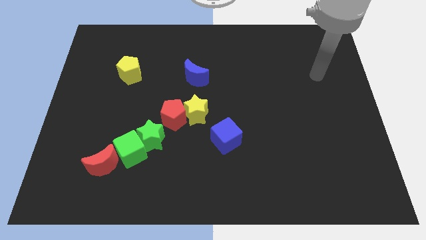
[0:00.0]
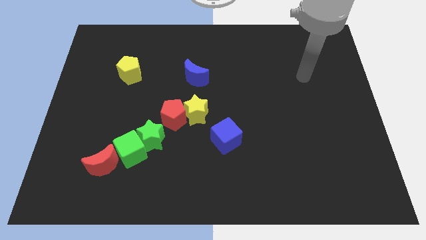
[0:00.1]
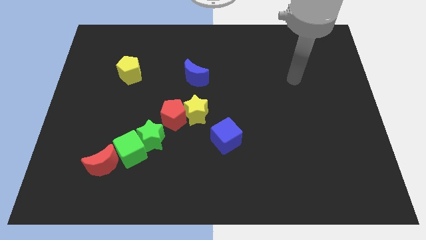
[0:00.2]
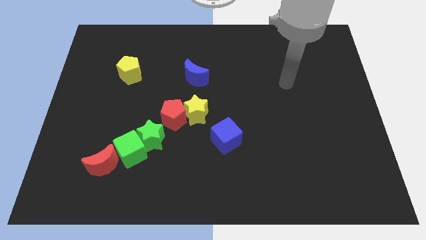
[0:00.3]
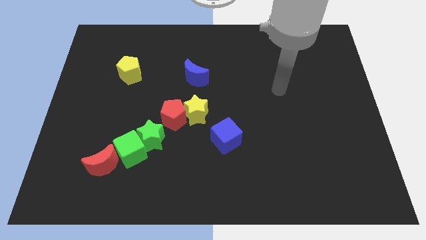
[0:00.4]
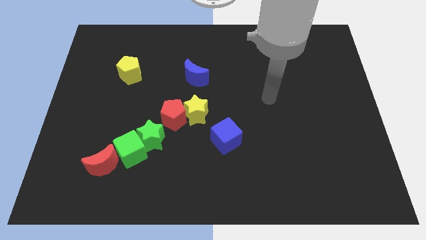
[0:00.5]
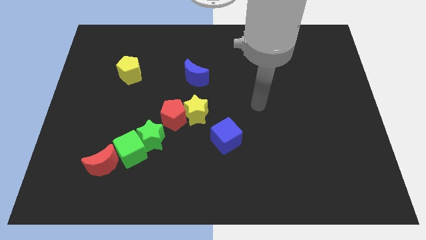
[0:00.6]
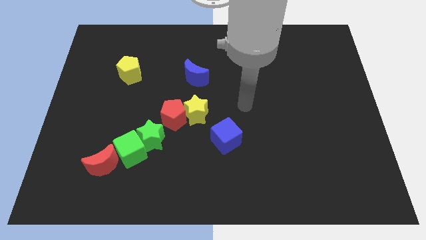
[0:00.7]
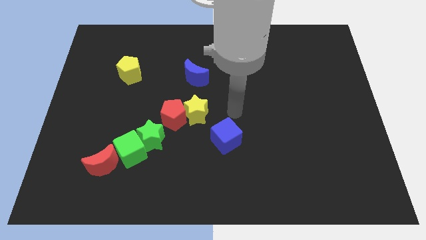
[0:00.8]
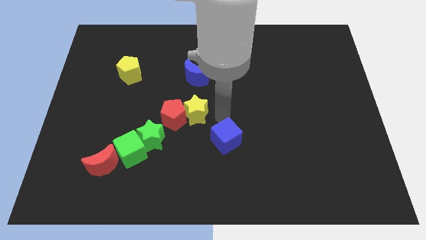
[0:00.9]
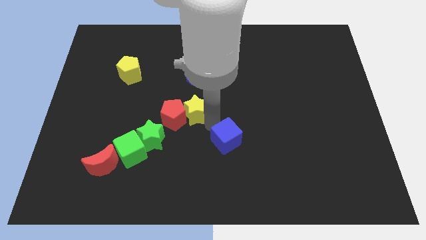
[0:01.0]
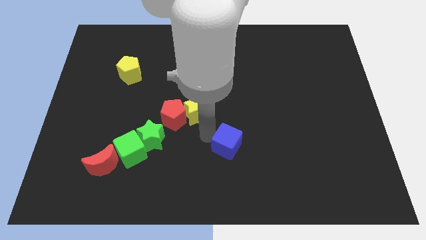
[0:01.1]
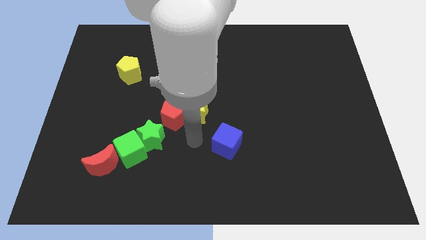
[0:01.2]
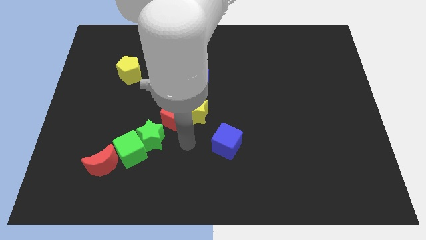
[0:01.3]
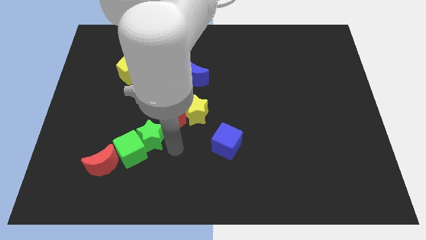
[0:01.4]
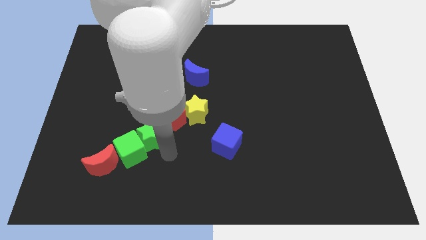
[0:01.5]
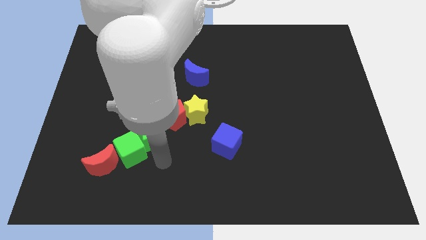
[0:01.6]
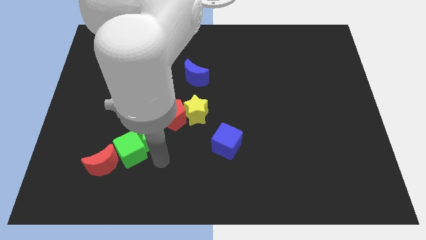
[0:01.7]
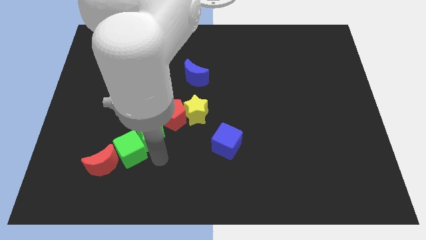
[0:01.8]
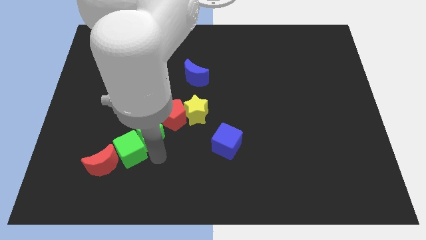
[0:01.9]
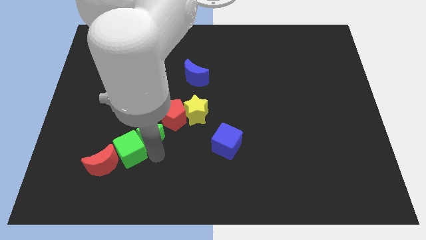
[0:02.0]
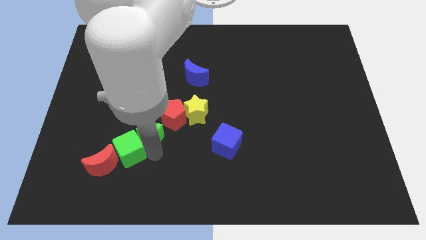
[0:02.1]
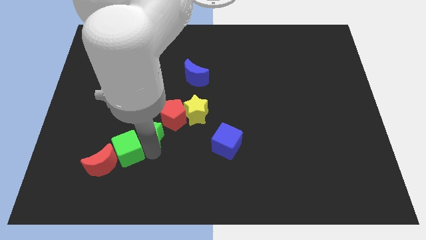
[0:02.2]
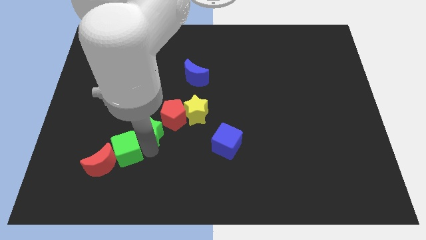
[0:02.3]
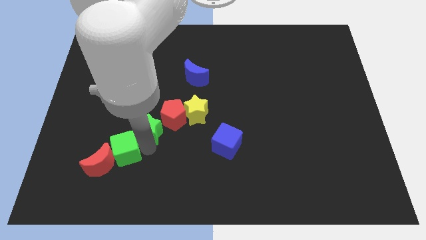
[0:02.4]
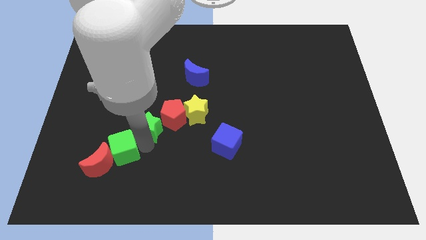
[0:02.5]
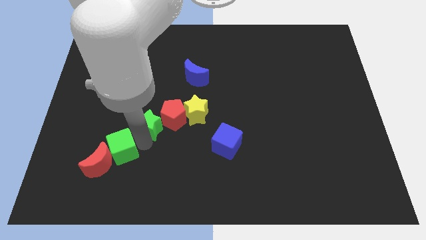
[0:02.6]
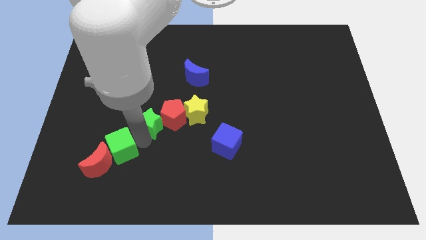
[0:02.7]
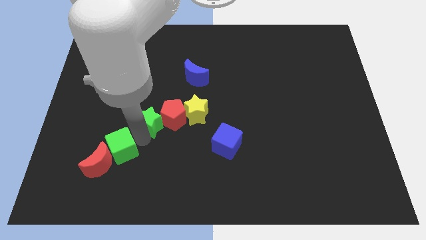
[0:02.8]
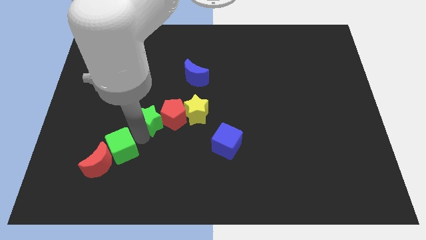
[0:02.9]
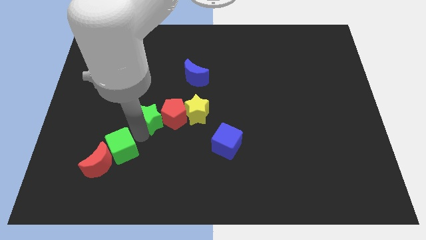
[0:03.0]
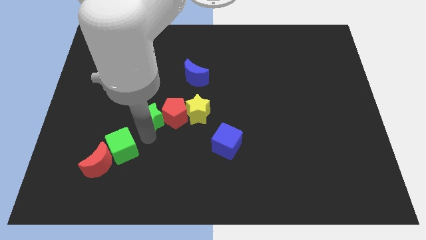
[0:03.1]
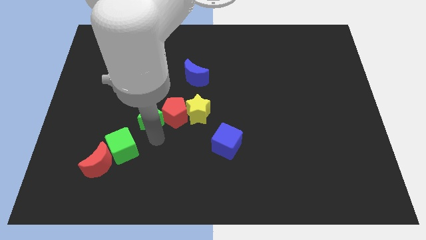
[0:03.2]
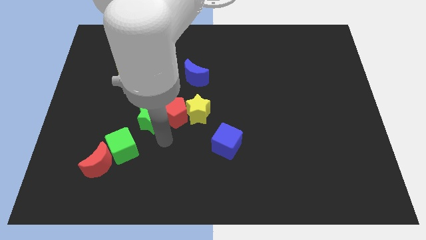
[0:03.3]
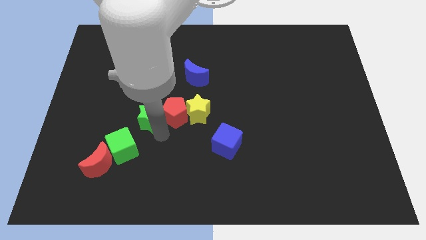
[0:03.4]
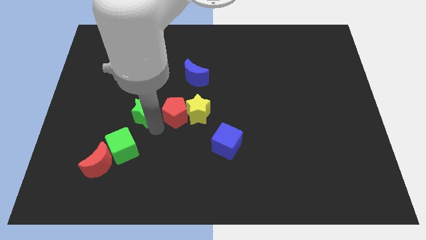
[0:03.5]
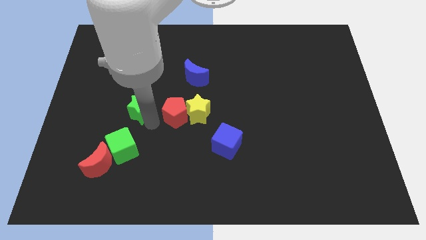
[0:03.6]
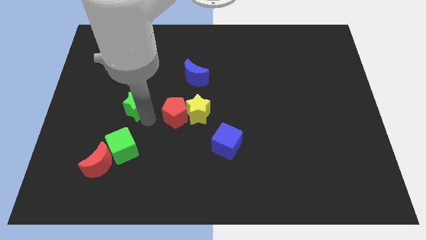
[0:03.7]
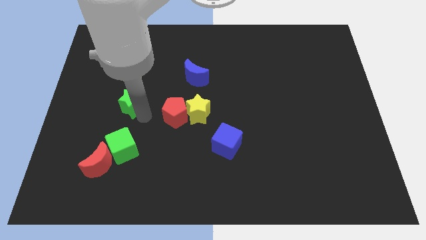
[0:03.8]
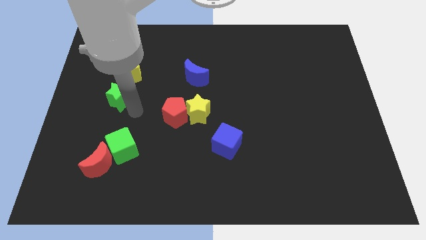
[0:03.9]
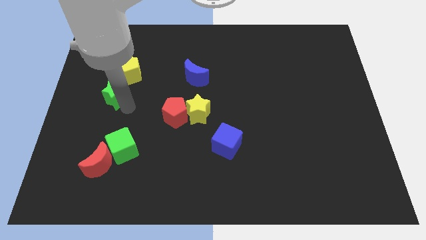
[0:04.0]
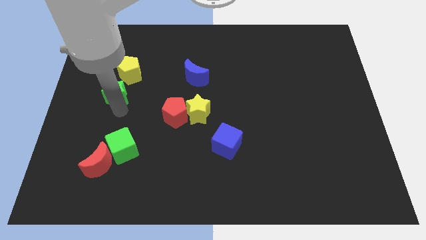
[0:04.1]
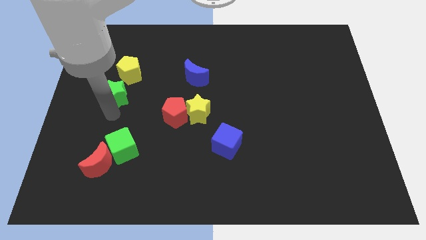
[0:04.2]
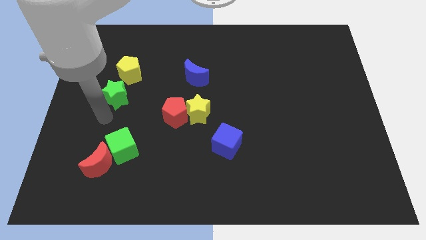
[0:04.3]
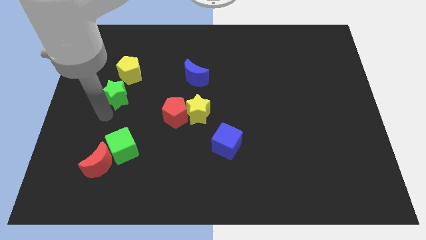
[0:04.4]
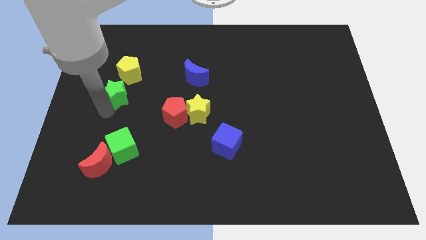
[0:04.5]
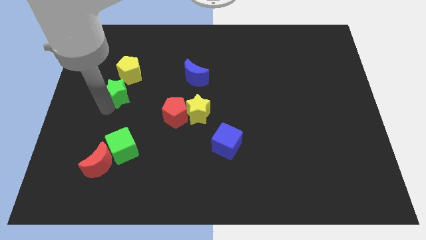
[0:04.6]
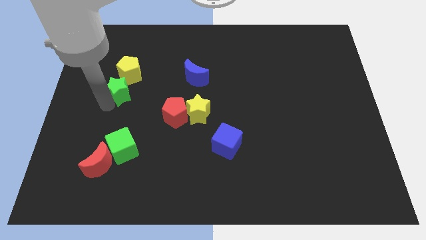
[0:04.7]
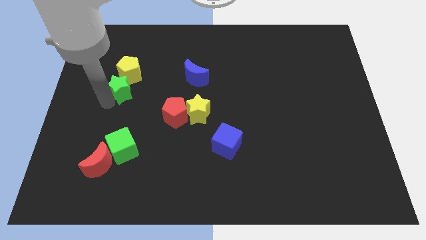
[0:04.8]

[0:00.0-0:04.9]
push the green star to the yellow pentagon

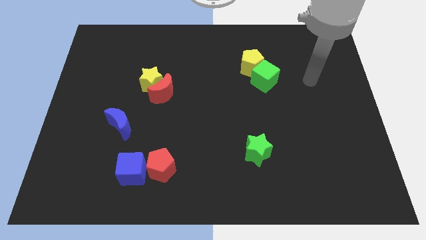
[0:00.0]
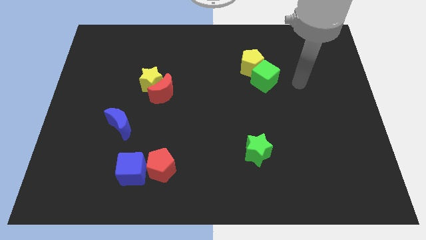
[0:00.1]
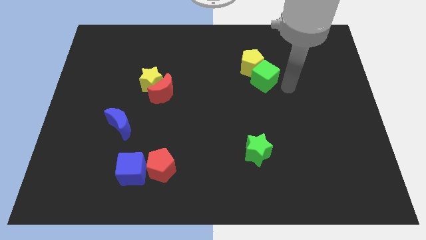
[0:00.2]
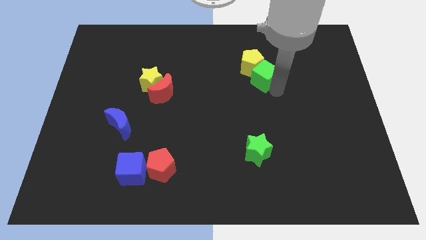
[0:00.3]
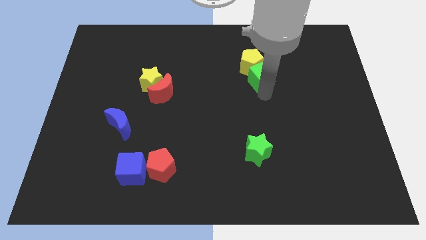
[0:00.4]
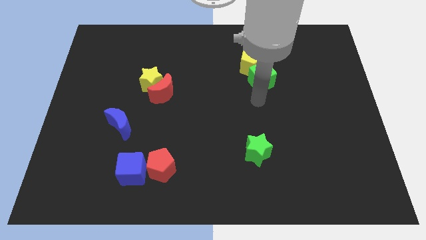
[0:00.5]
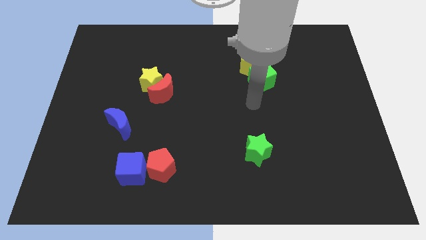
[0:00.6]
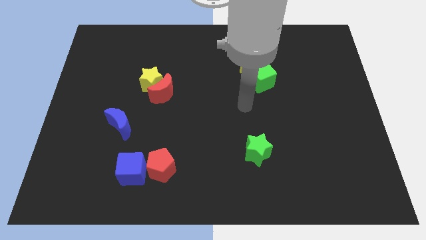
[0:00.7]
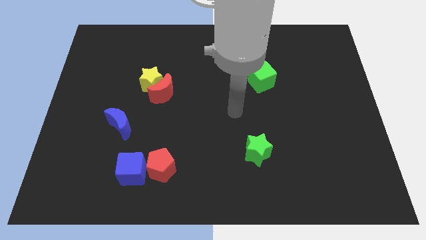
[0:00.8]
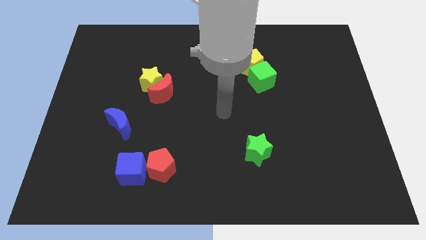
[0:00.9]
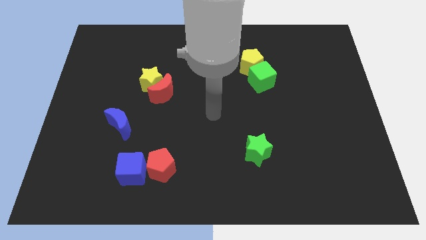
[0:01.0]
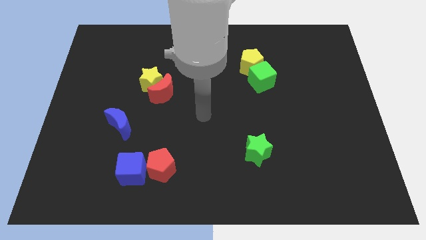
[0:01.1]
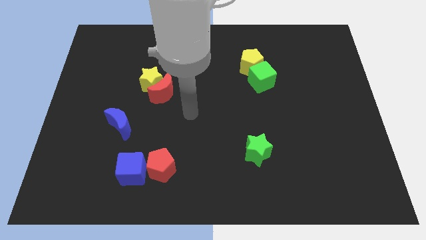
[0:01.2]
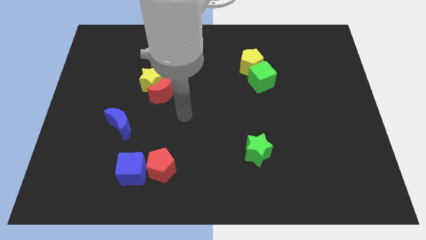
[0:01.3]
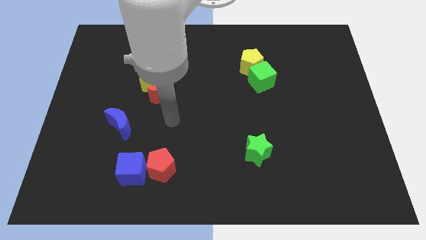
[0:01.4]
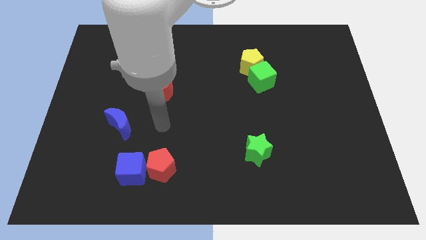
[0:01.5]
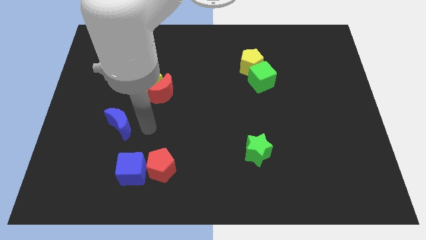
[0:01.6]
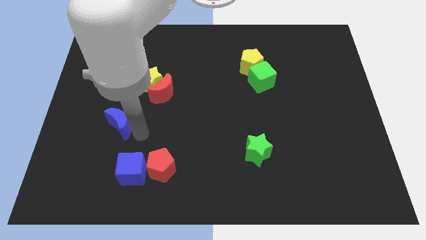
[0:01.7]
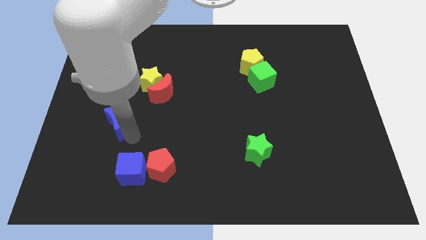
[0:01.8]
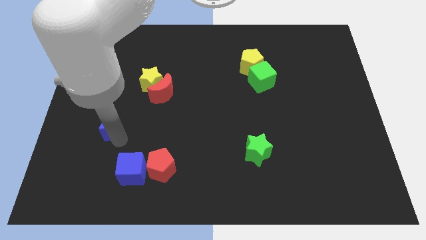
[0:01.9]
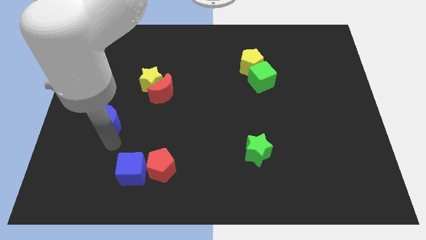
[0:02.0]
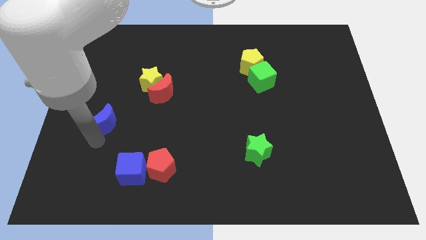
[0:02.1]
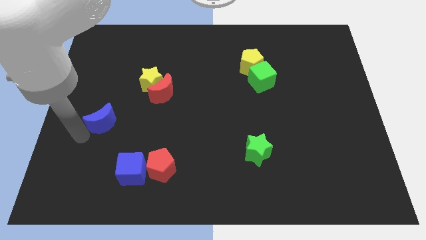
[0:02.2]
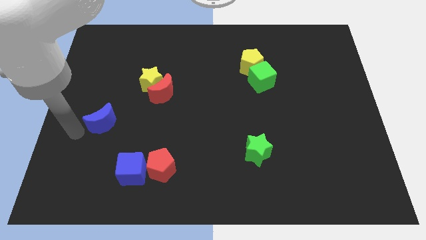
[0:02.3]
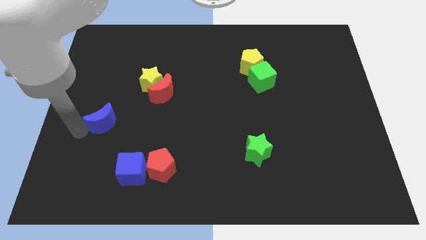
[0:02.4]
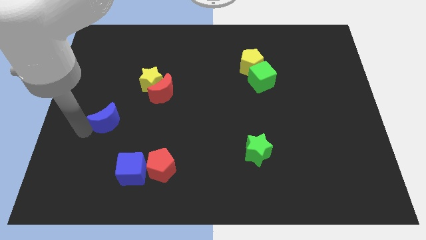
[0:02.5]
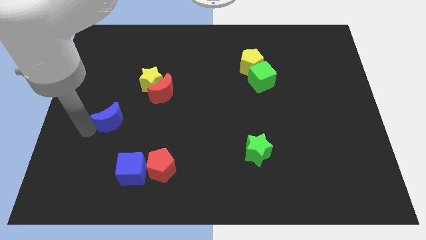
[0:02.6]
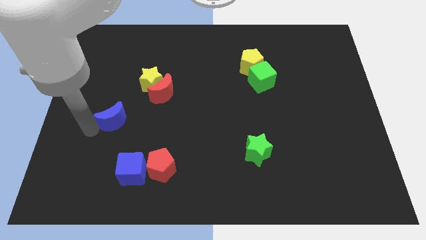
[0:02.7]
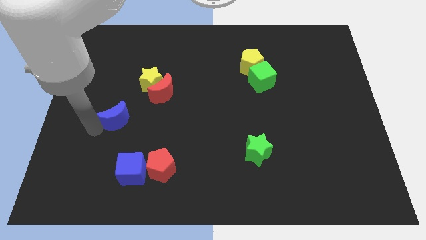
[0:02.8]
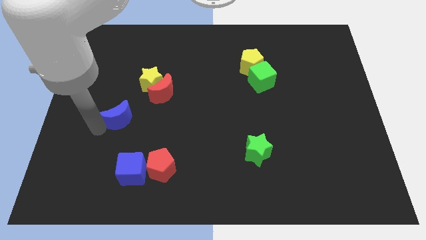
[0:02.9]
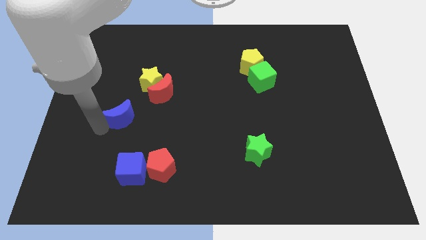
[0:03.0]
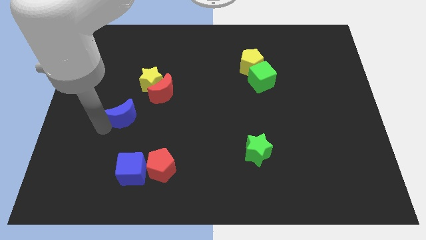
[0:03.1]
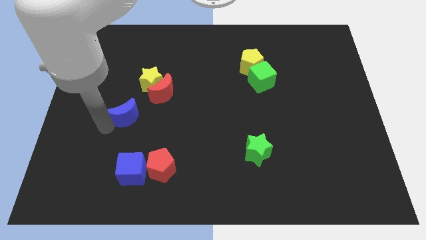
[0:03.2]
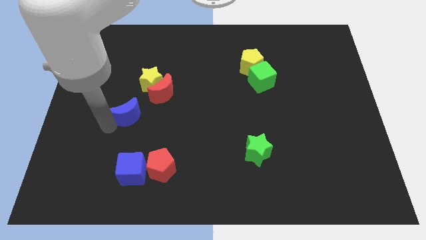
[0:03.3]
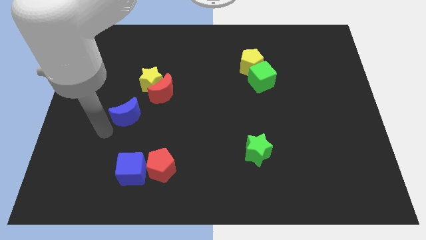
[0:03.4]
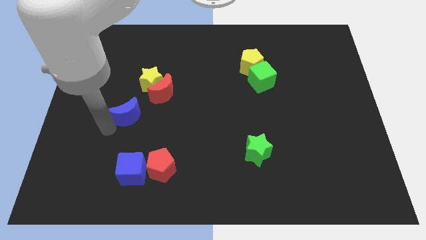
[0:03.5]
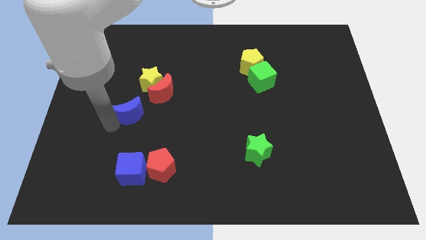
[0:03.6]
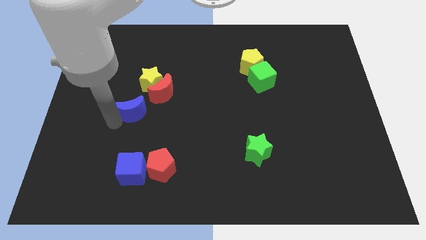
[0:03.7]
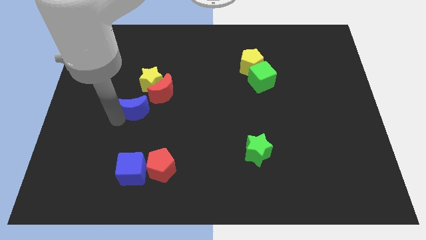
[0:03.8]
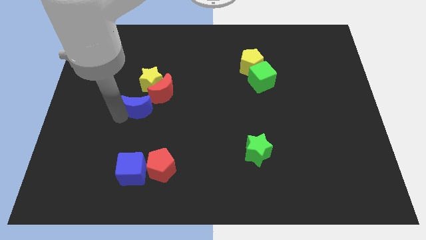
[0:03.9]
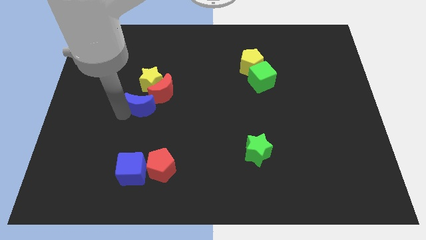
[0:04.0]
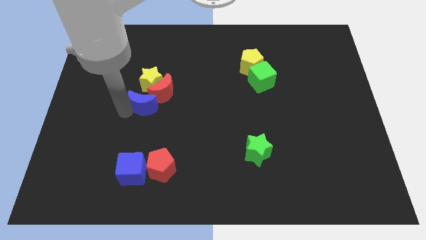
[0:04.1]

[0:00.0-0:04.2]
push the blue moon close to the red moon
